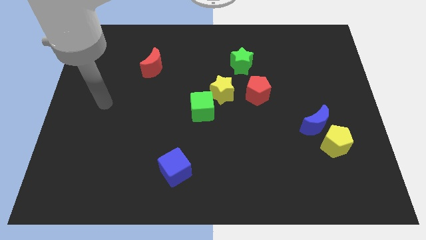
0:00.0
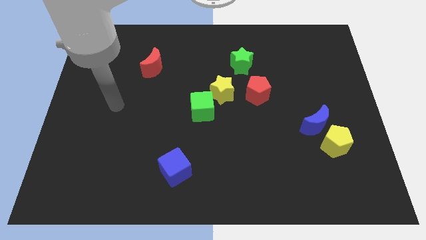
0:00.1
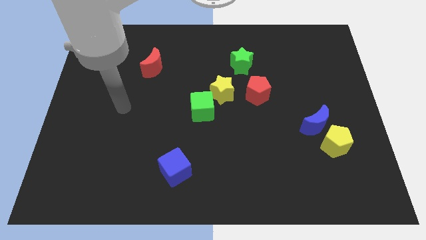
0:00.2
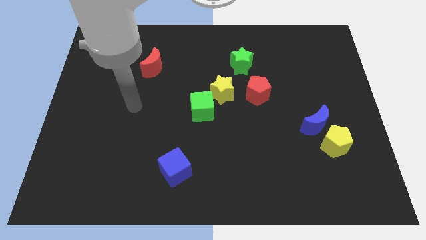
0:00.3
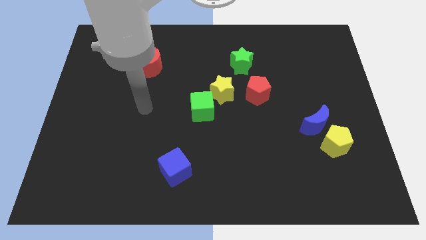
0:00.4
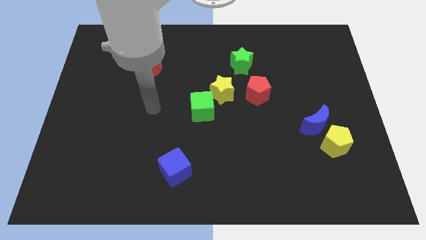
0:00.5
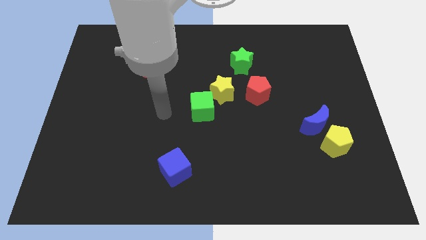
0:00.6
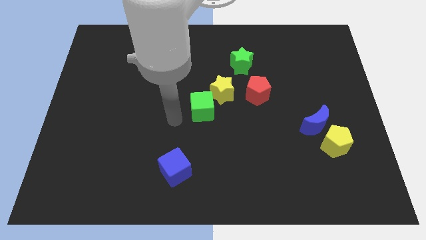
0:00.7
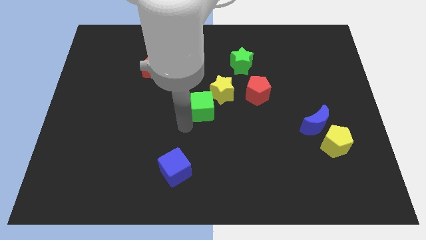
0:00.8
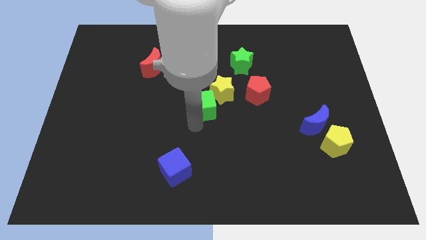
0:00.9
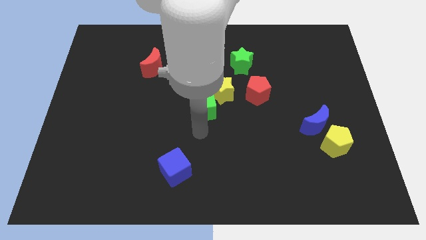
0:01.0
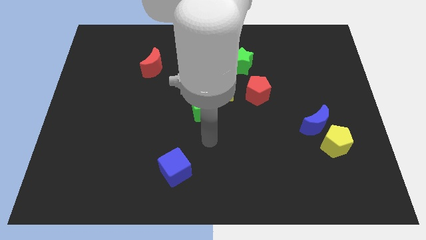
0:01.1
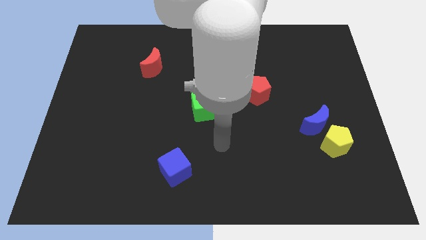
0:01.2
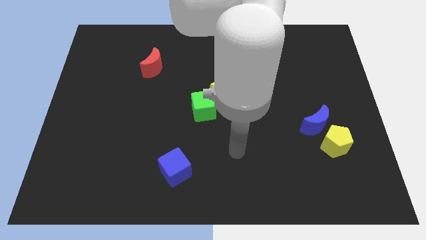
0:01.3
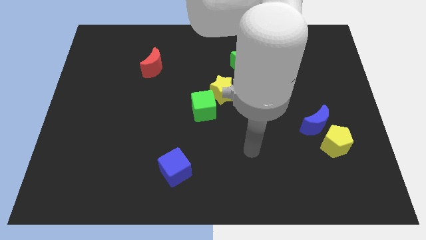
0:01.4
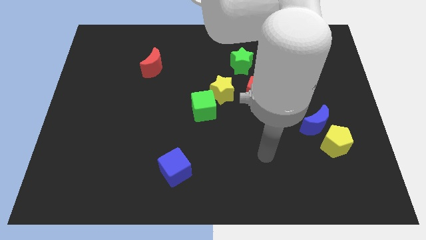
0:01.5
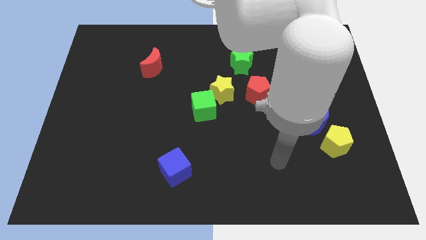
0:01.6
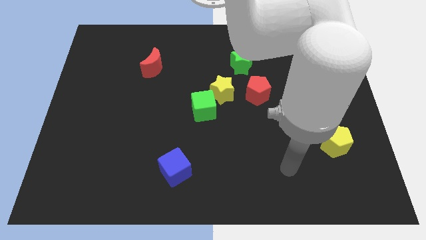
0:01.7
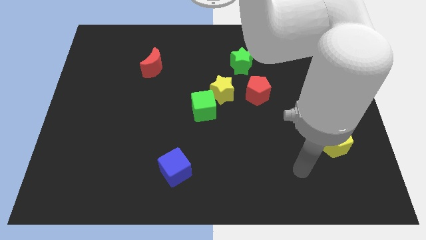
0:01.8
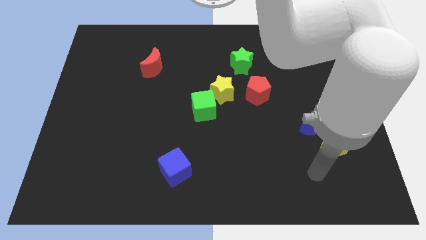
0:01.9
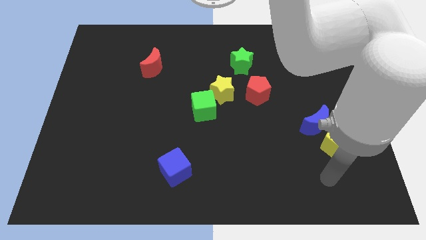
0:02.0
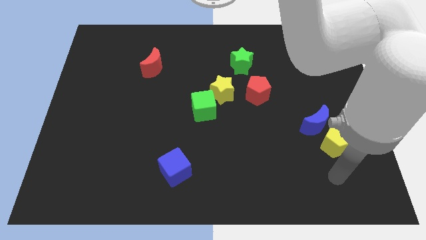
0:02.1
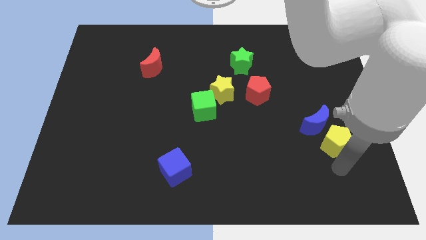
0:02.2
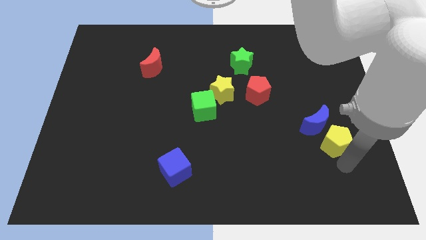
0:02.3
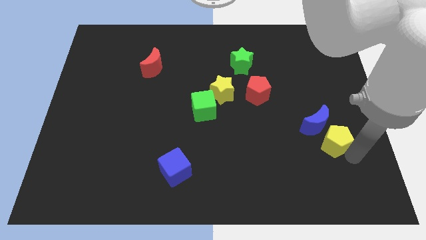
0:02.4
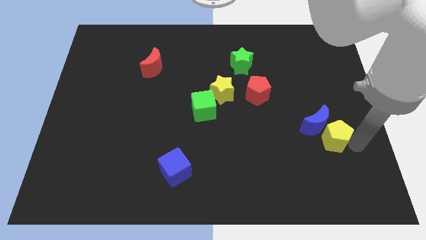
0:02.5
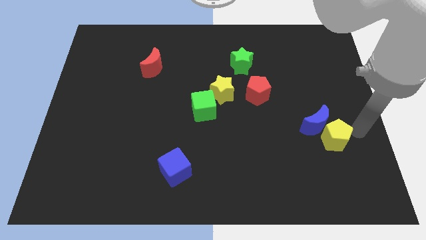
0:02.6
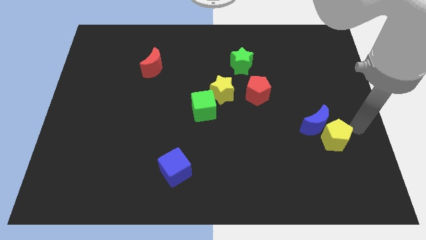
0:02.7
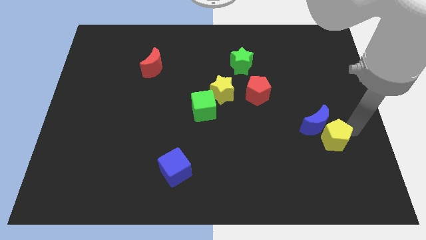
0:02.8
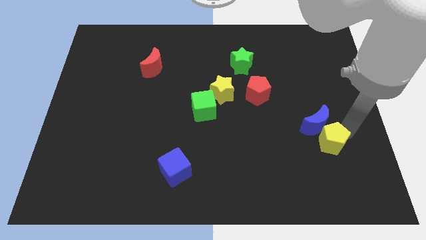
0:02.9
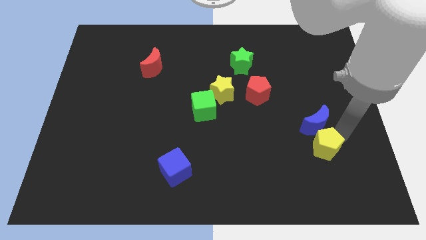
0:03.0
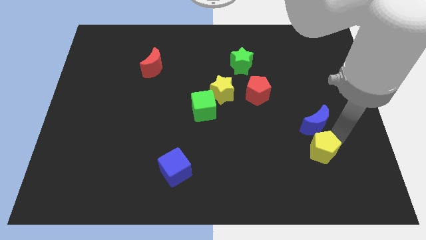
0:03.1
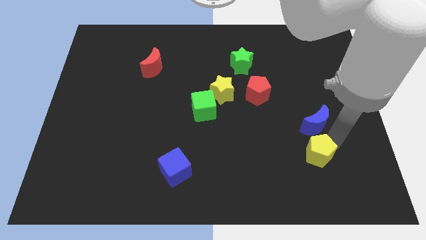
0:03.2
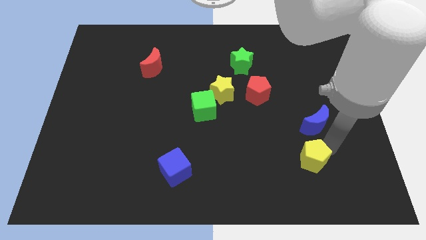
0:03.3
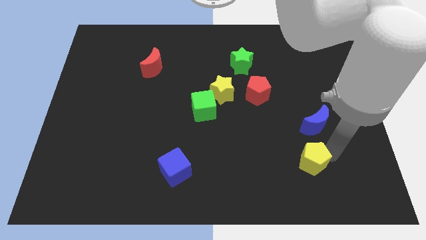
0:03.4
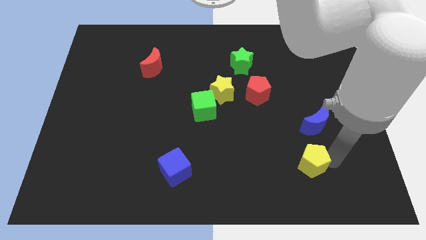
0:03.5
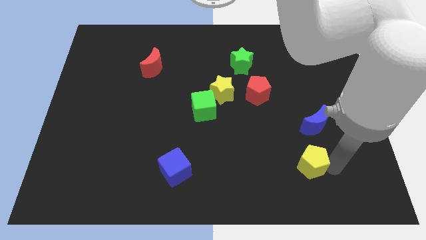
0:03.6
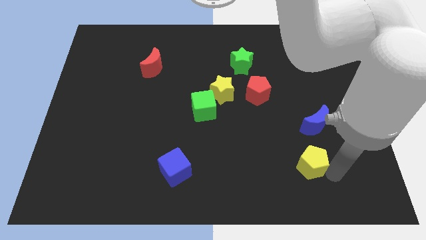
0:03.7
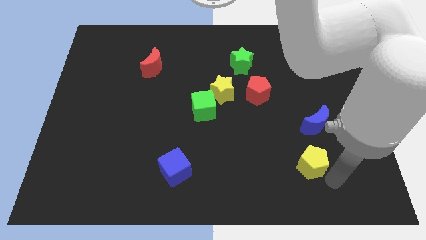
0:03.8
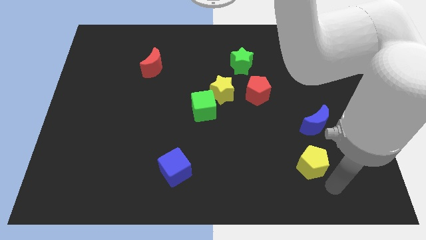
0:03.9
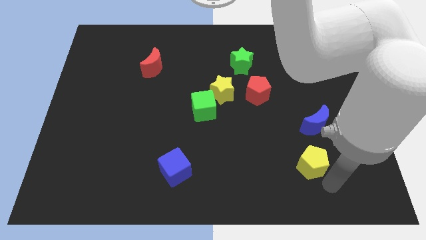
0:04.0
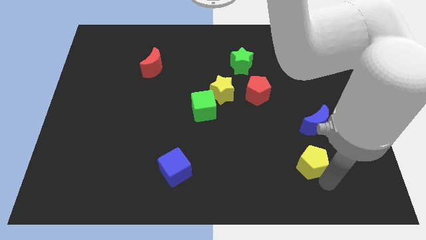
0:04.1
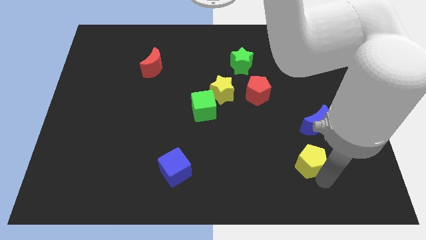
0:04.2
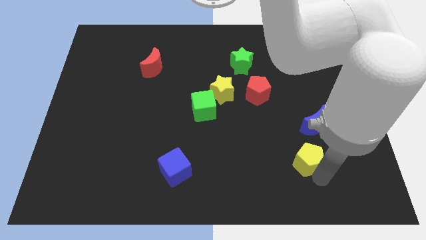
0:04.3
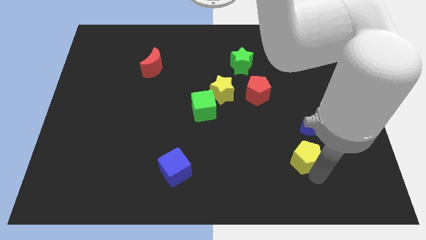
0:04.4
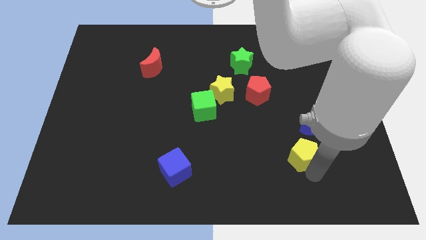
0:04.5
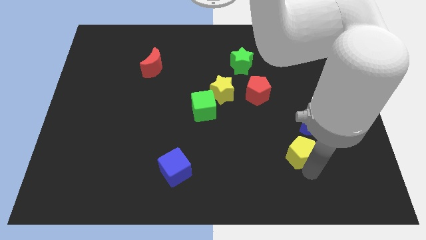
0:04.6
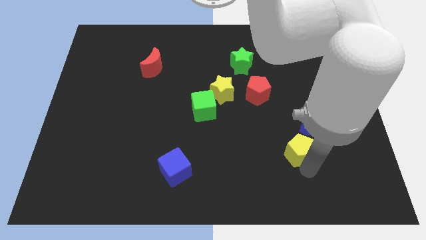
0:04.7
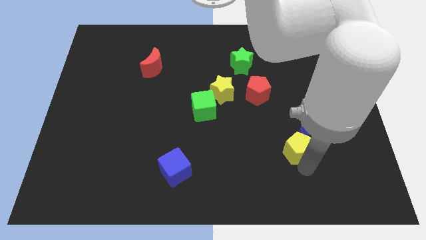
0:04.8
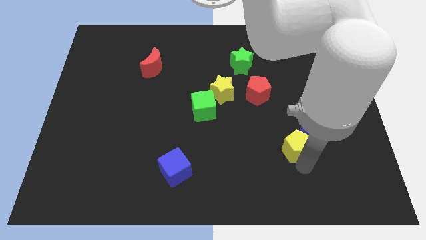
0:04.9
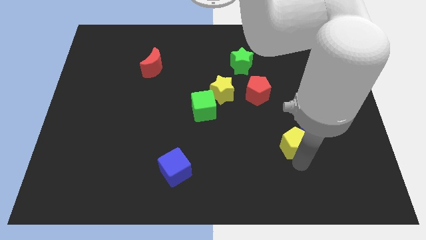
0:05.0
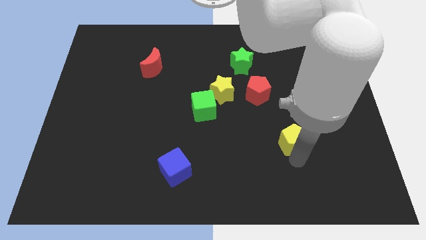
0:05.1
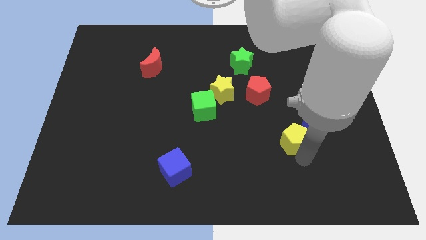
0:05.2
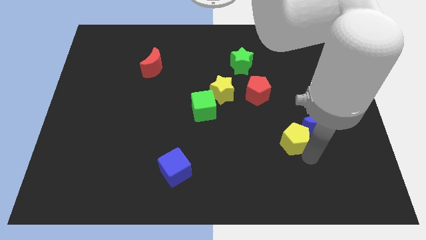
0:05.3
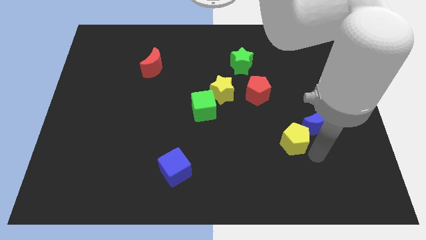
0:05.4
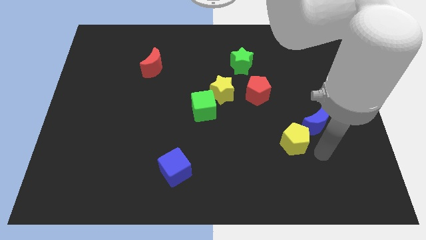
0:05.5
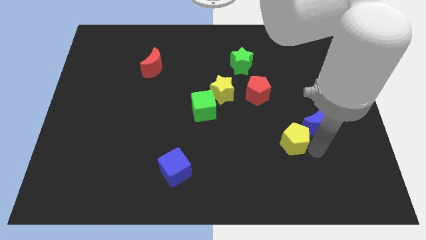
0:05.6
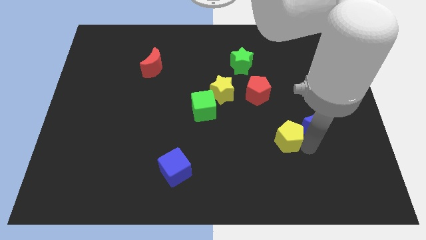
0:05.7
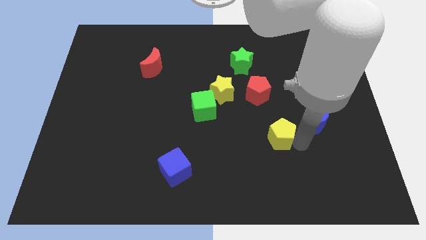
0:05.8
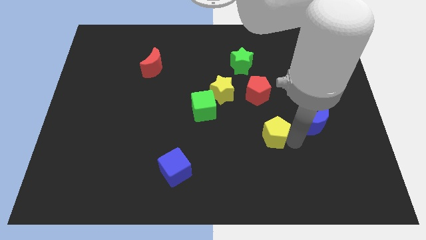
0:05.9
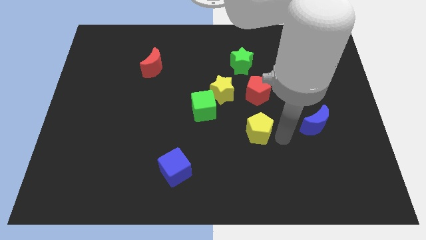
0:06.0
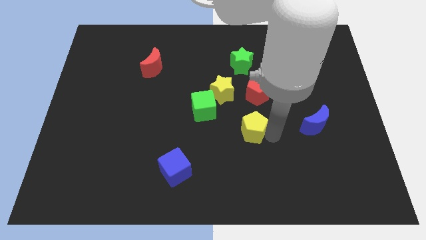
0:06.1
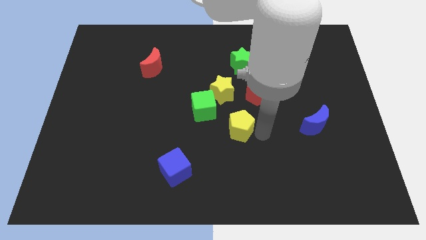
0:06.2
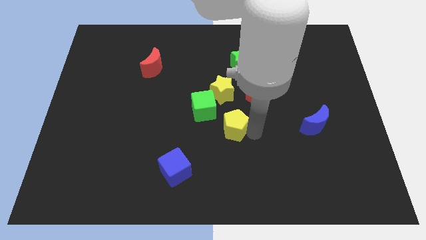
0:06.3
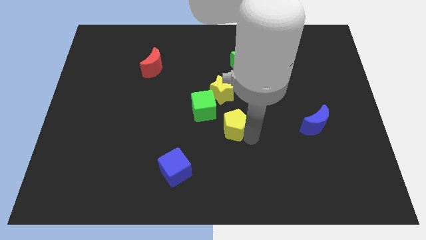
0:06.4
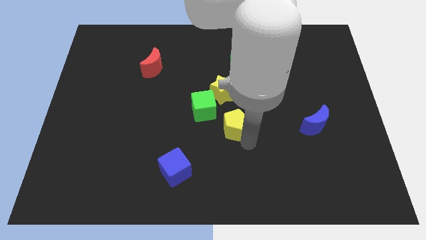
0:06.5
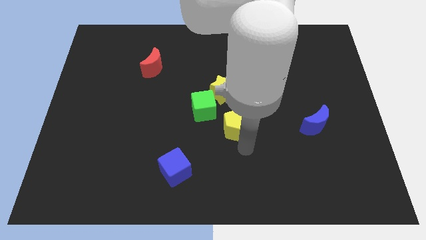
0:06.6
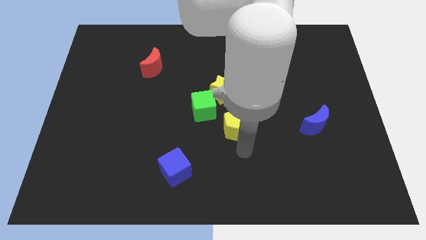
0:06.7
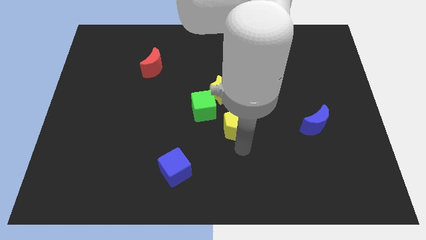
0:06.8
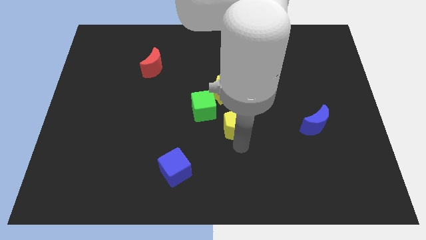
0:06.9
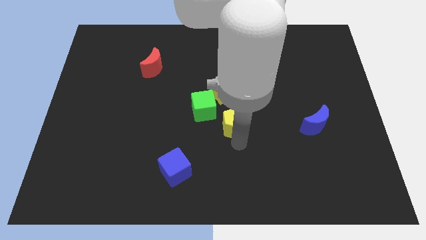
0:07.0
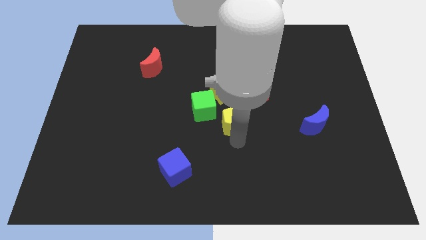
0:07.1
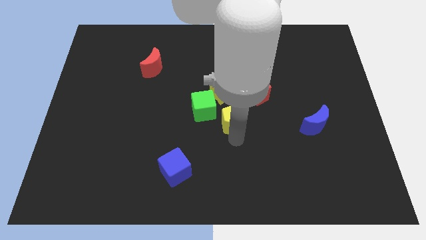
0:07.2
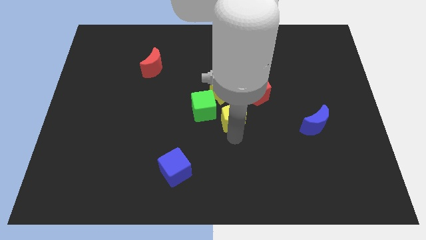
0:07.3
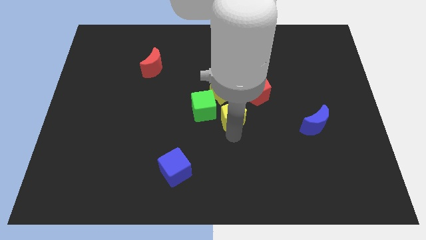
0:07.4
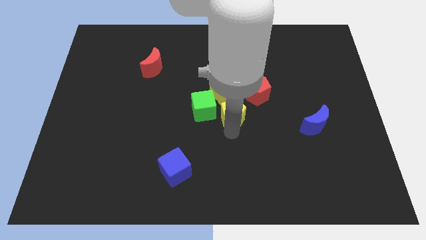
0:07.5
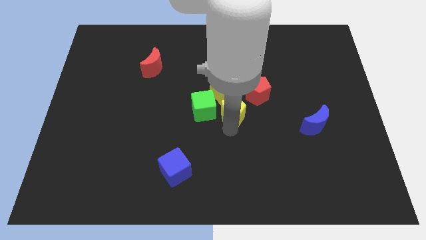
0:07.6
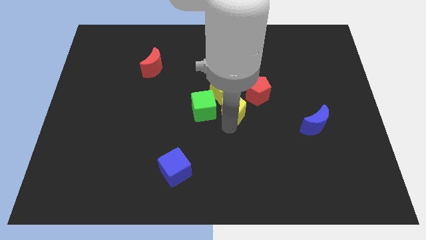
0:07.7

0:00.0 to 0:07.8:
put the yellow pentagon to the yellow star
